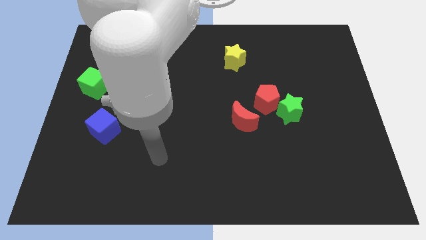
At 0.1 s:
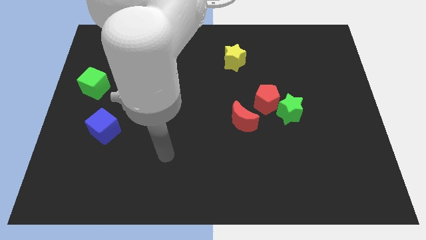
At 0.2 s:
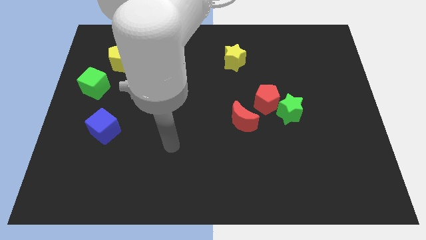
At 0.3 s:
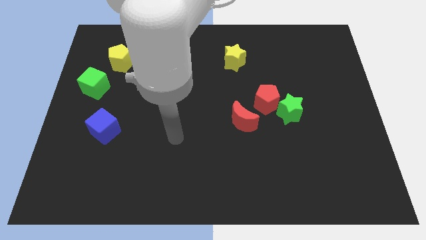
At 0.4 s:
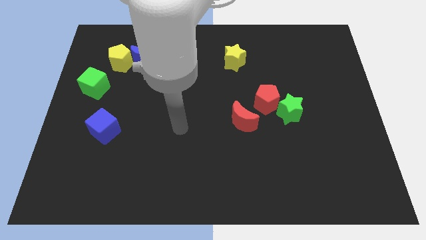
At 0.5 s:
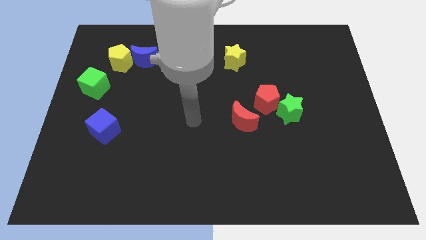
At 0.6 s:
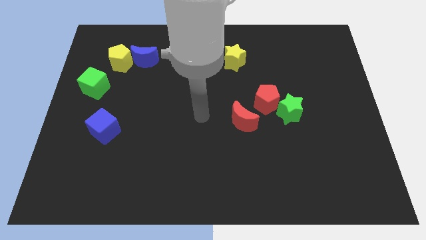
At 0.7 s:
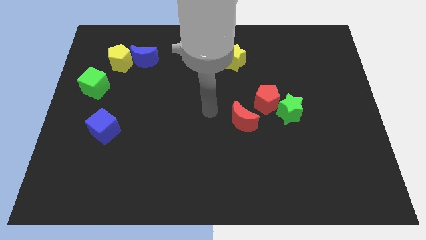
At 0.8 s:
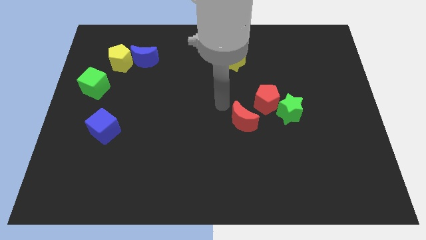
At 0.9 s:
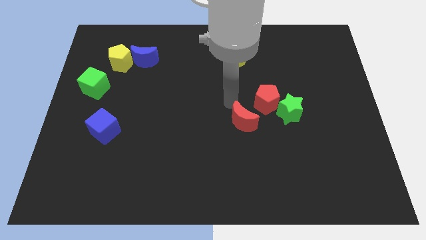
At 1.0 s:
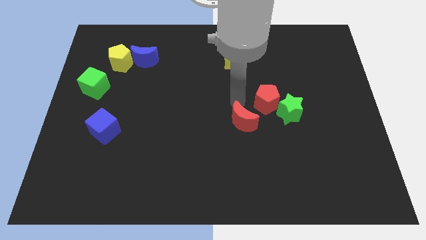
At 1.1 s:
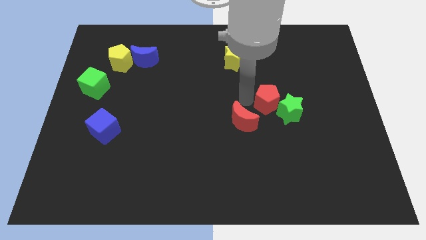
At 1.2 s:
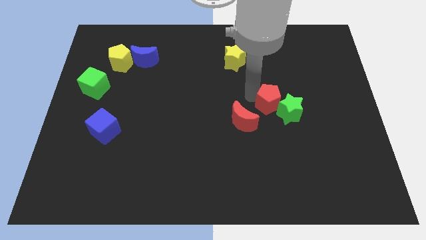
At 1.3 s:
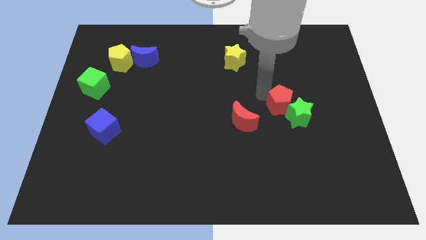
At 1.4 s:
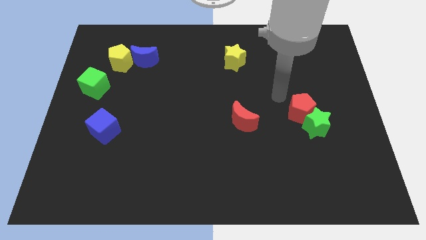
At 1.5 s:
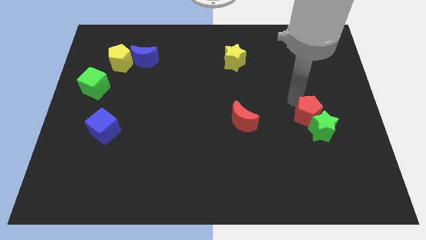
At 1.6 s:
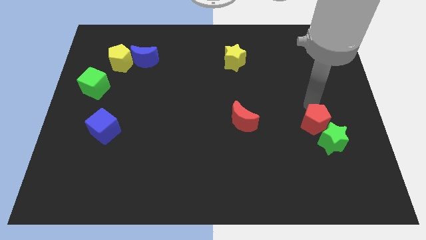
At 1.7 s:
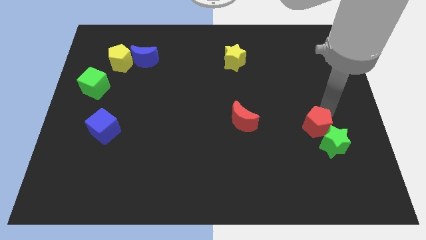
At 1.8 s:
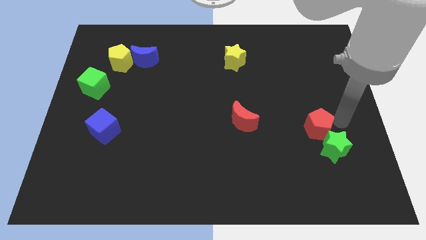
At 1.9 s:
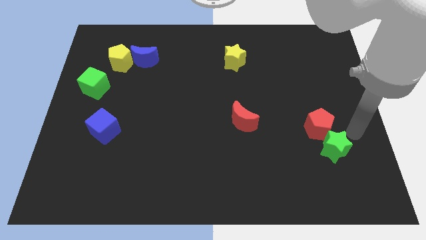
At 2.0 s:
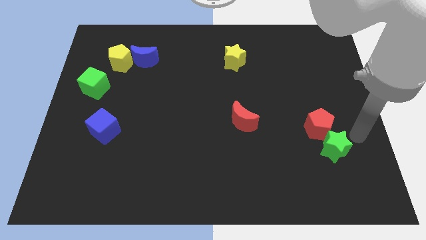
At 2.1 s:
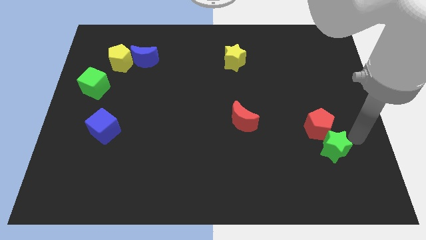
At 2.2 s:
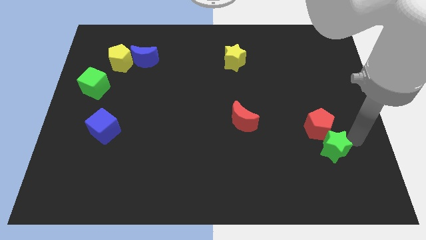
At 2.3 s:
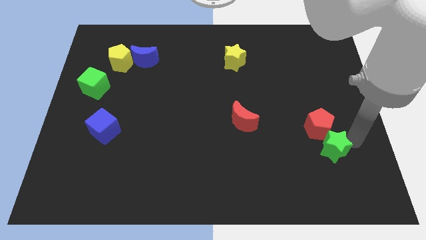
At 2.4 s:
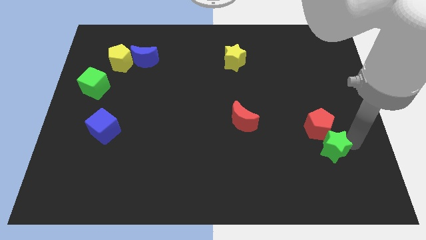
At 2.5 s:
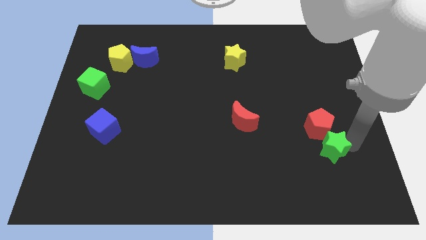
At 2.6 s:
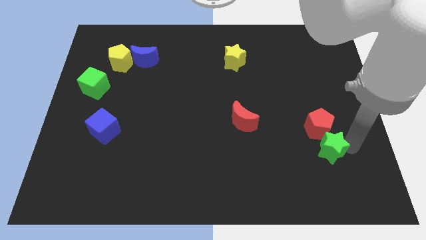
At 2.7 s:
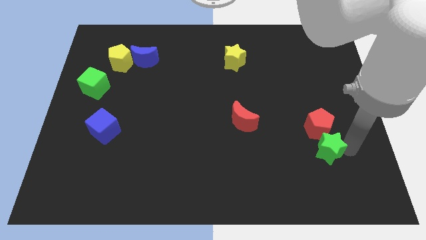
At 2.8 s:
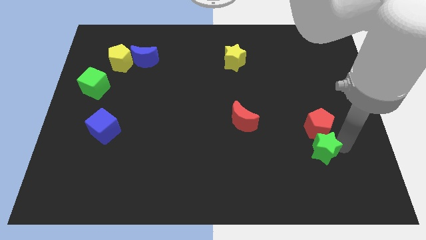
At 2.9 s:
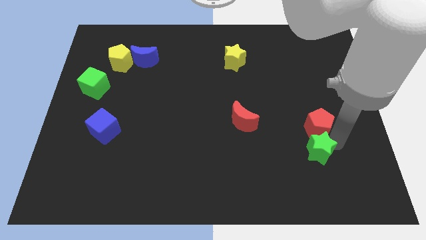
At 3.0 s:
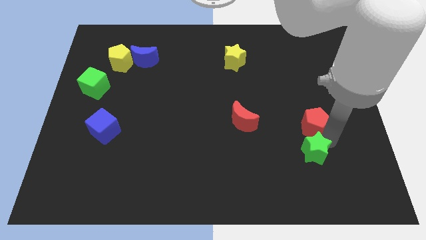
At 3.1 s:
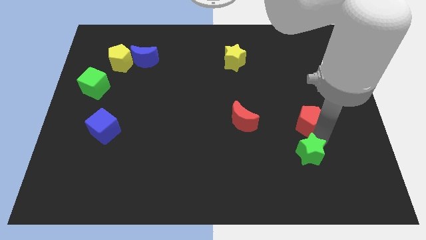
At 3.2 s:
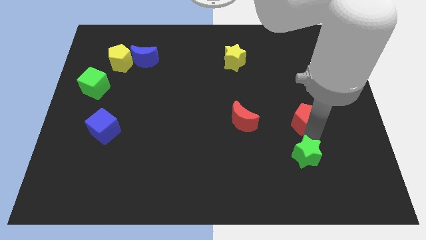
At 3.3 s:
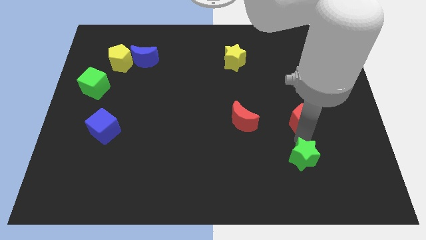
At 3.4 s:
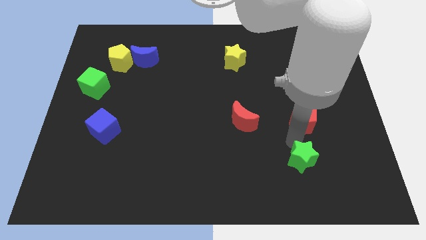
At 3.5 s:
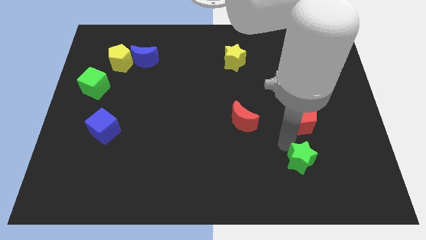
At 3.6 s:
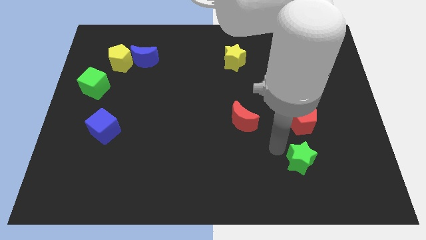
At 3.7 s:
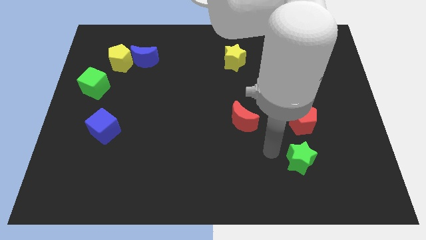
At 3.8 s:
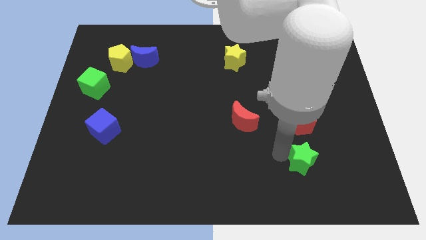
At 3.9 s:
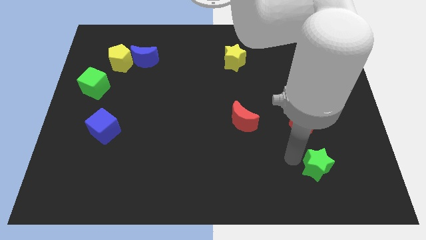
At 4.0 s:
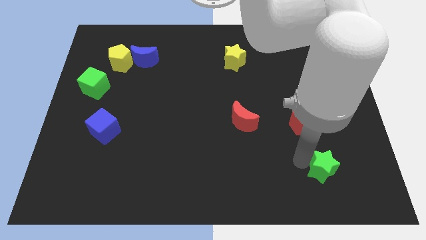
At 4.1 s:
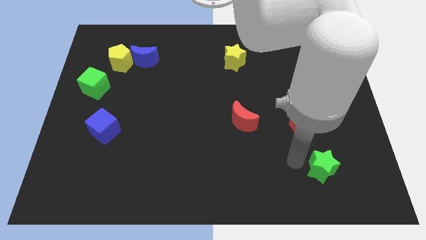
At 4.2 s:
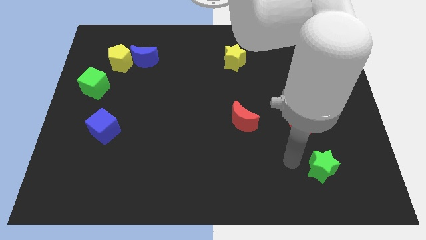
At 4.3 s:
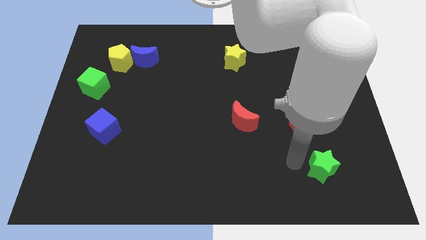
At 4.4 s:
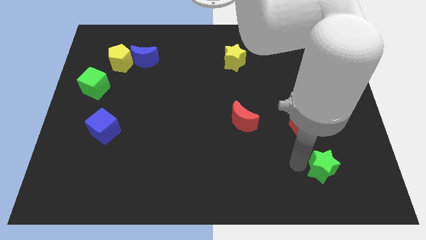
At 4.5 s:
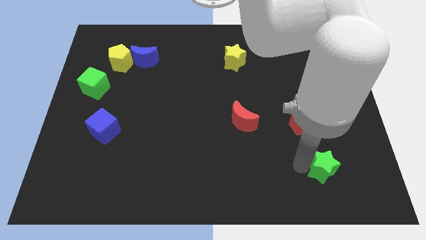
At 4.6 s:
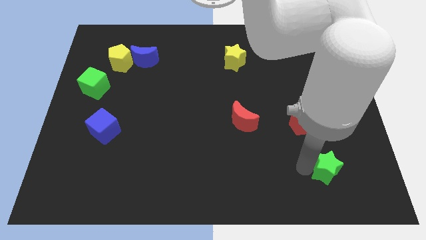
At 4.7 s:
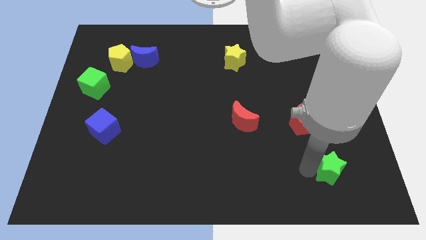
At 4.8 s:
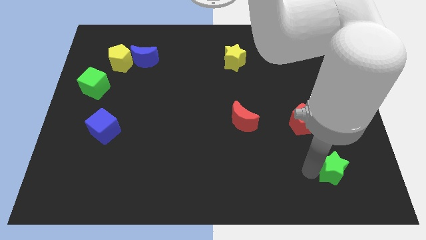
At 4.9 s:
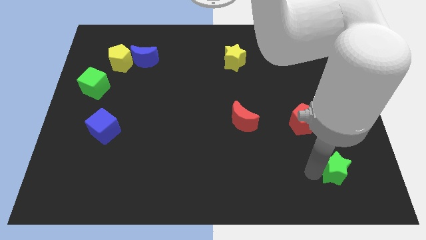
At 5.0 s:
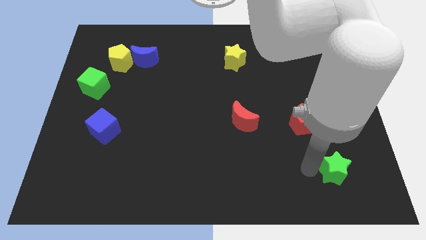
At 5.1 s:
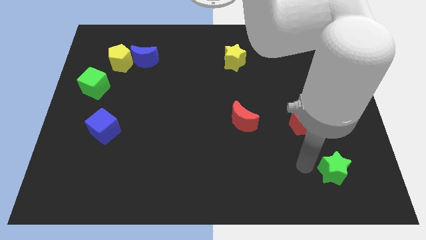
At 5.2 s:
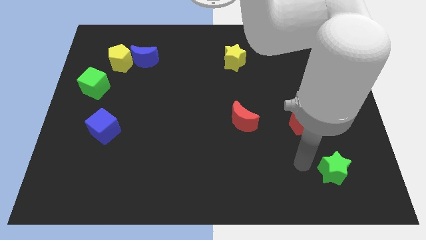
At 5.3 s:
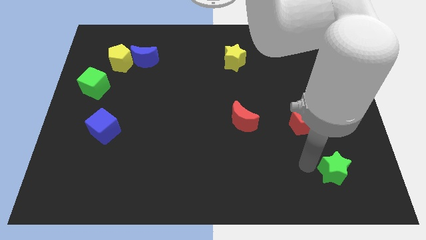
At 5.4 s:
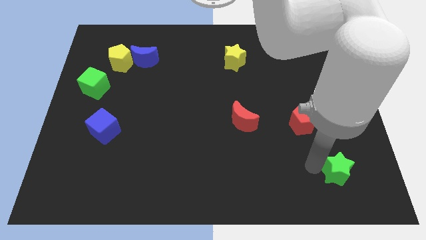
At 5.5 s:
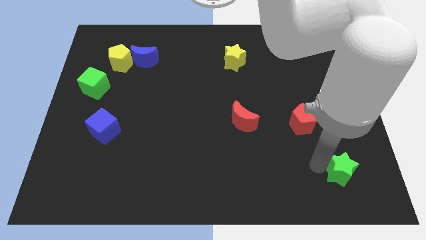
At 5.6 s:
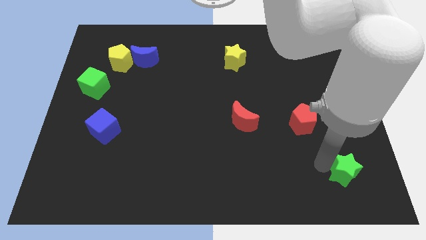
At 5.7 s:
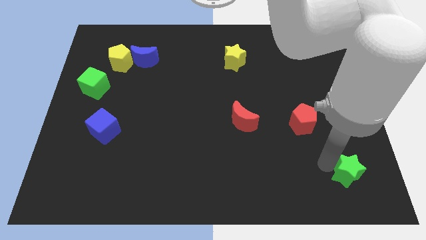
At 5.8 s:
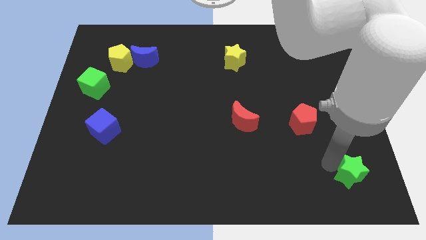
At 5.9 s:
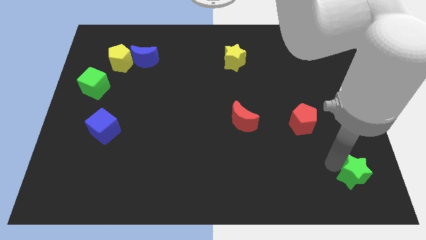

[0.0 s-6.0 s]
push the green star to the lower right corner

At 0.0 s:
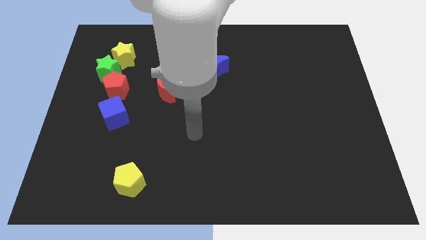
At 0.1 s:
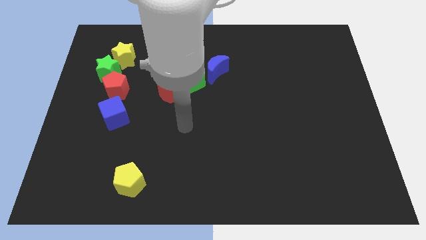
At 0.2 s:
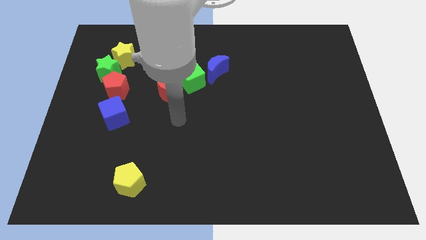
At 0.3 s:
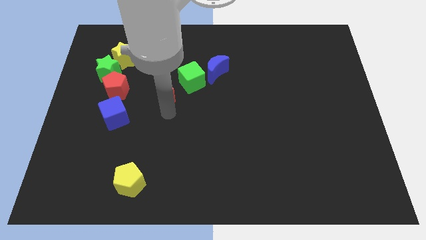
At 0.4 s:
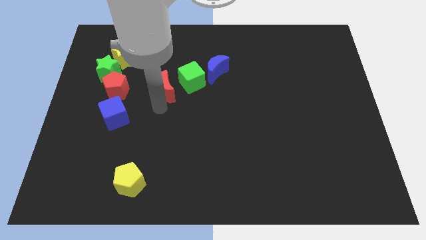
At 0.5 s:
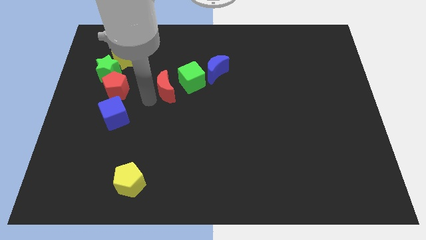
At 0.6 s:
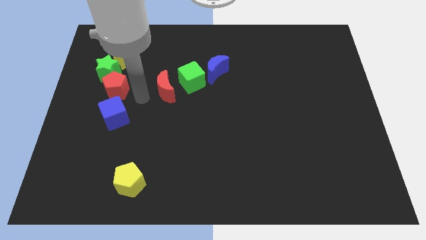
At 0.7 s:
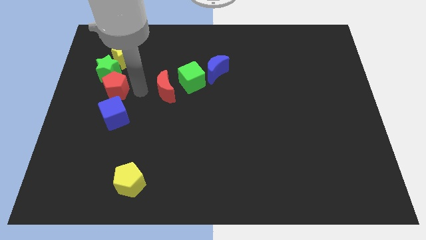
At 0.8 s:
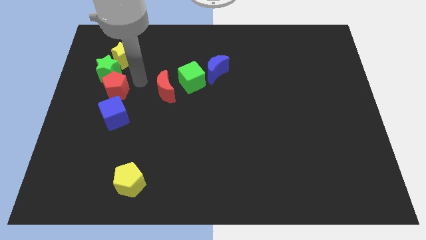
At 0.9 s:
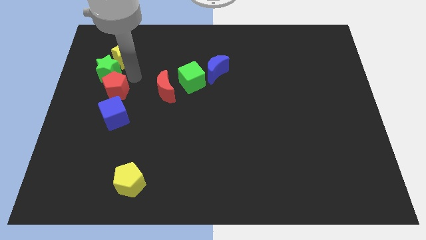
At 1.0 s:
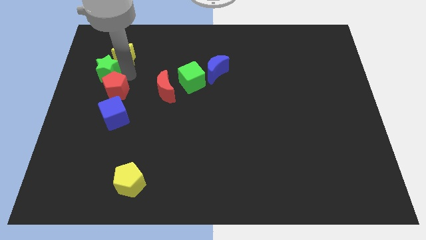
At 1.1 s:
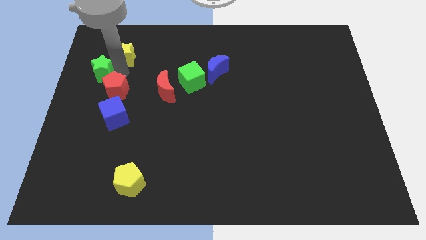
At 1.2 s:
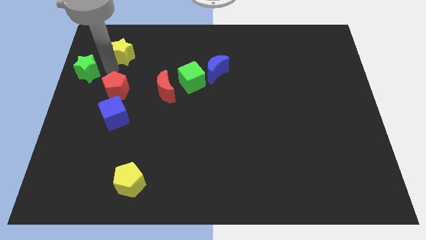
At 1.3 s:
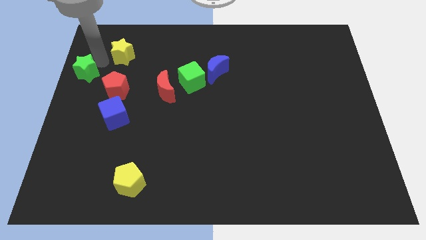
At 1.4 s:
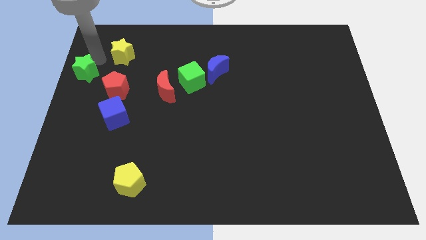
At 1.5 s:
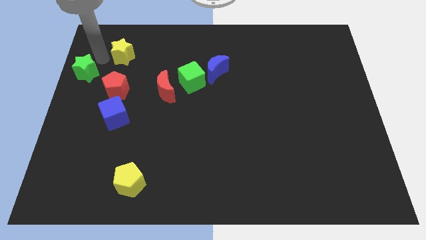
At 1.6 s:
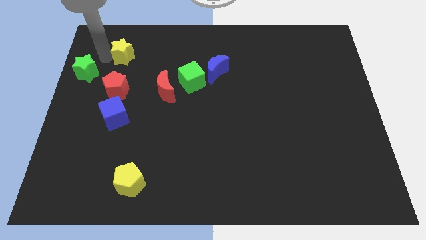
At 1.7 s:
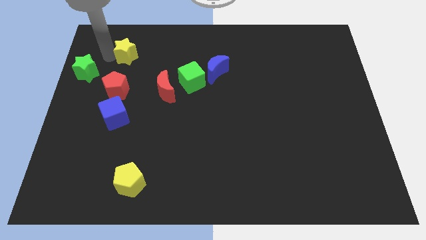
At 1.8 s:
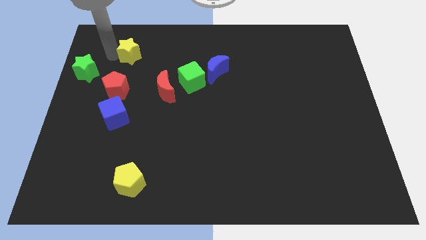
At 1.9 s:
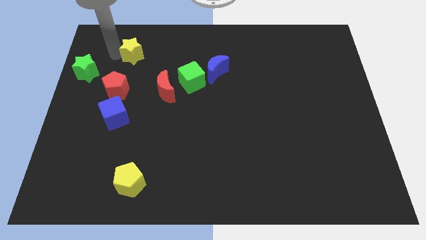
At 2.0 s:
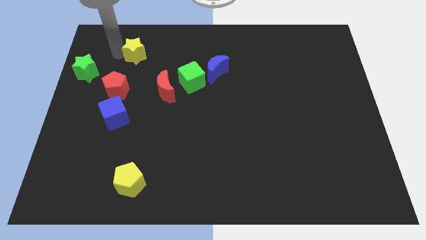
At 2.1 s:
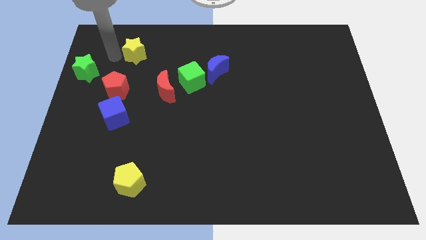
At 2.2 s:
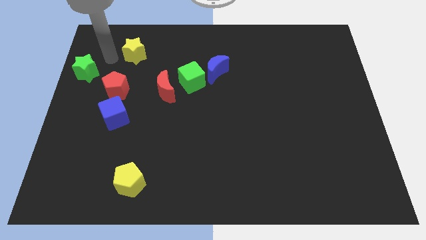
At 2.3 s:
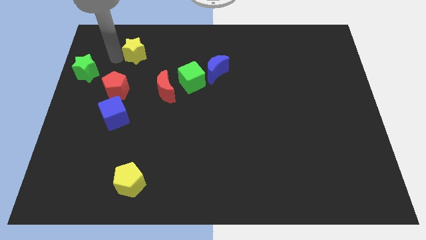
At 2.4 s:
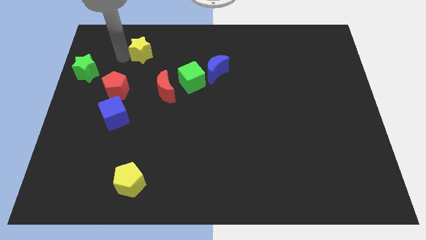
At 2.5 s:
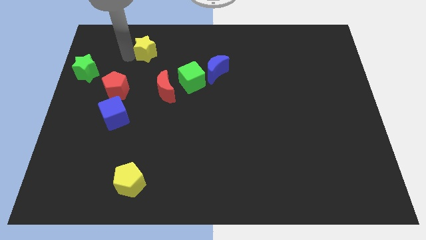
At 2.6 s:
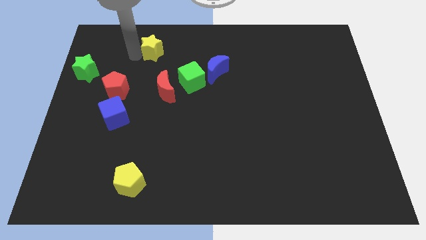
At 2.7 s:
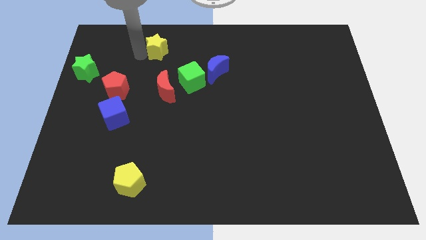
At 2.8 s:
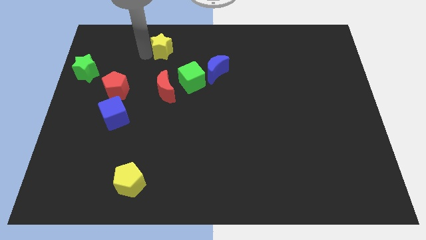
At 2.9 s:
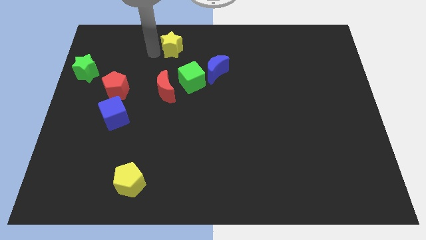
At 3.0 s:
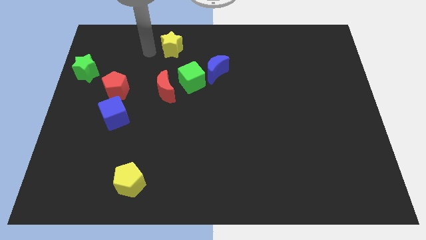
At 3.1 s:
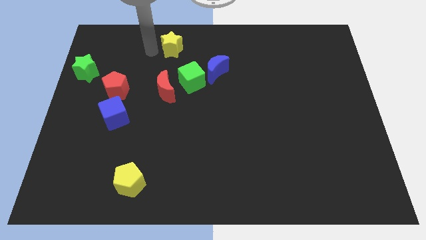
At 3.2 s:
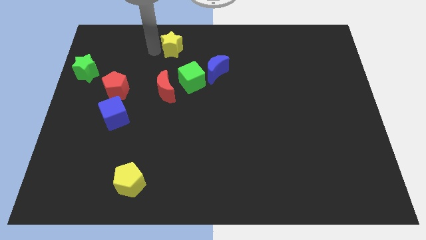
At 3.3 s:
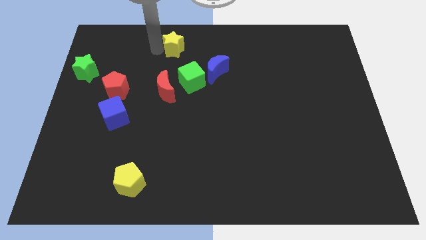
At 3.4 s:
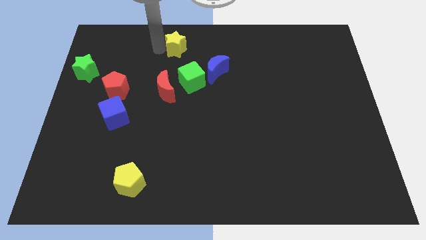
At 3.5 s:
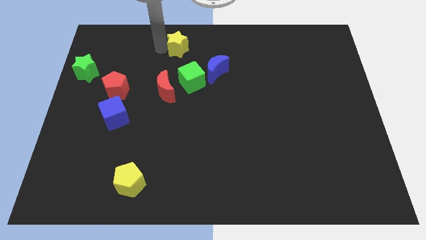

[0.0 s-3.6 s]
slide the yellow star to the towards your base
